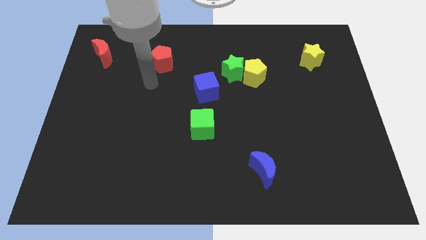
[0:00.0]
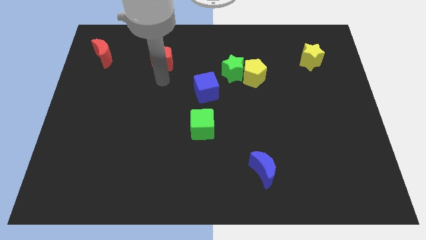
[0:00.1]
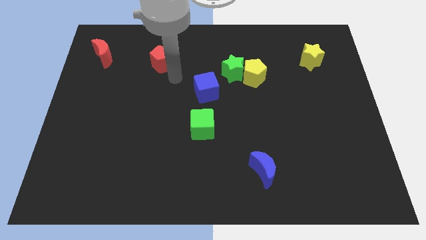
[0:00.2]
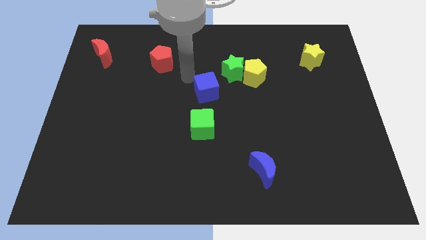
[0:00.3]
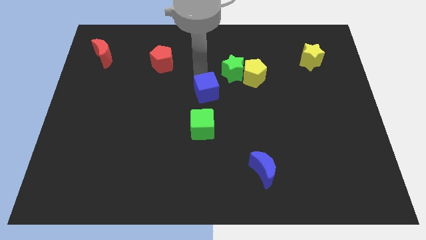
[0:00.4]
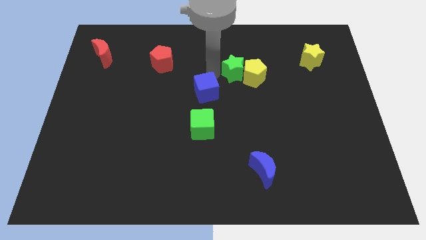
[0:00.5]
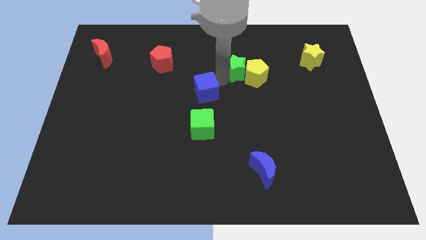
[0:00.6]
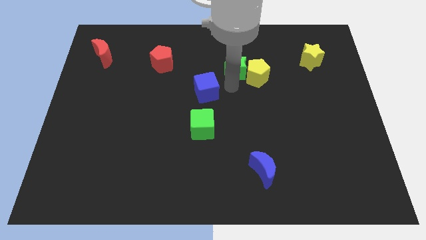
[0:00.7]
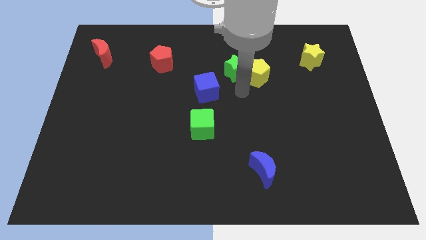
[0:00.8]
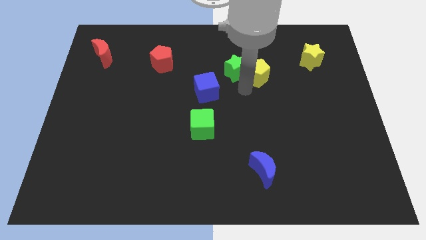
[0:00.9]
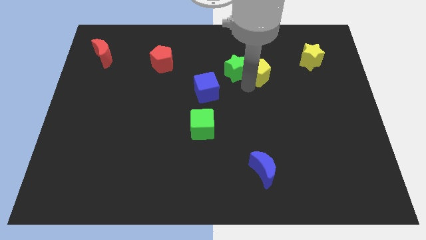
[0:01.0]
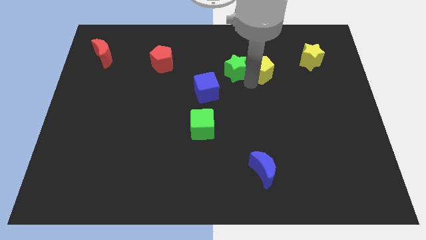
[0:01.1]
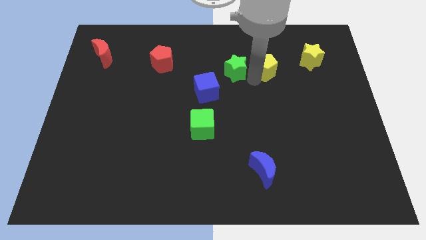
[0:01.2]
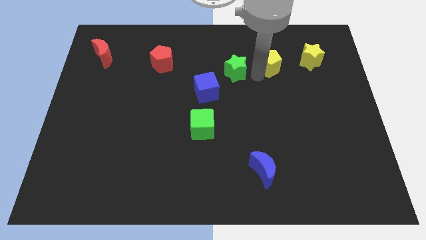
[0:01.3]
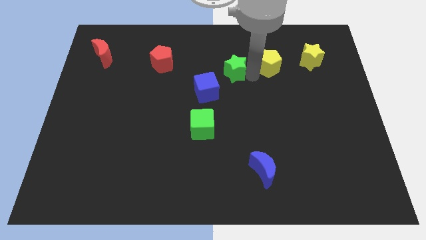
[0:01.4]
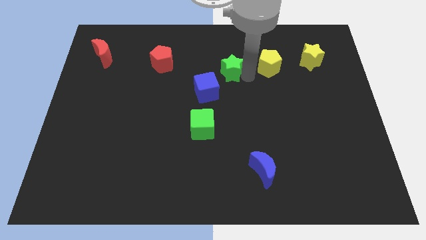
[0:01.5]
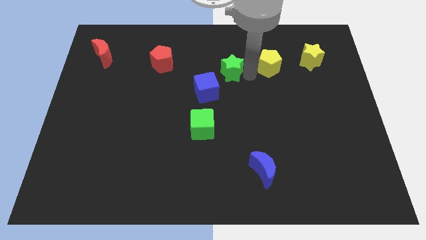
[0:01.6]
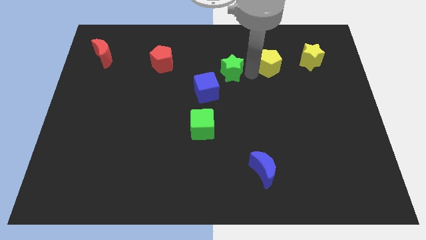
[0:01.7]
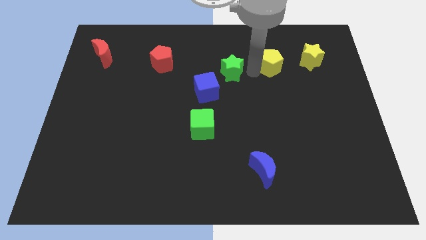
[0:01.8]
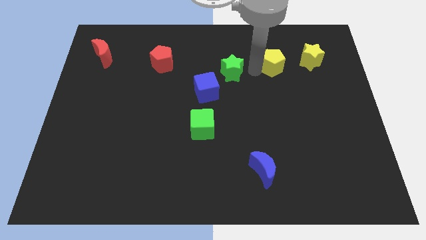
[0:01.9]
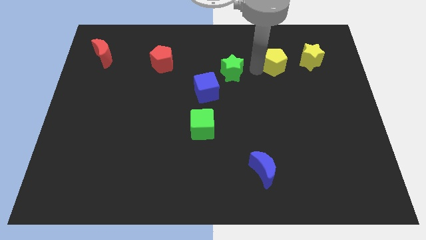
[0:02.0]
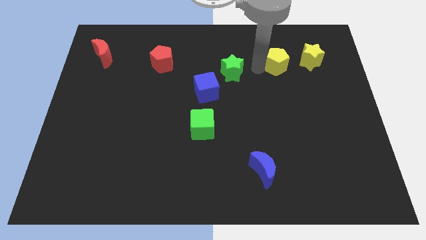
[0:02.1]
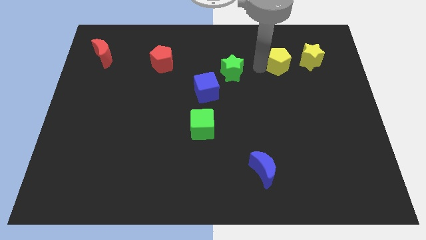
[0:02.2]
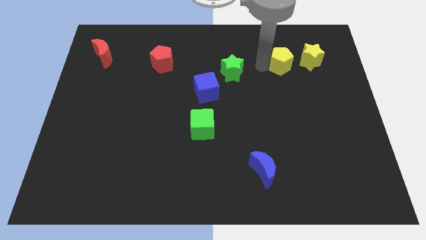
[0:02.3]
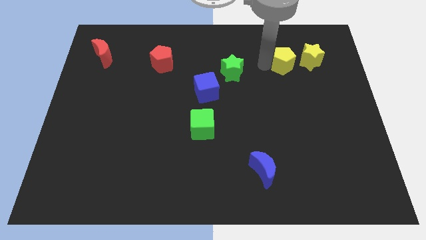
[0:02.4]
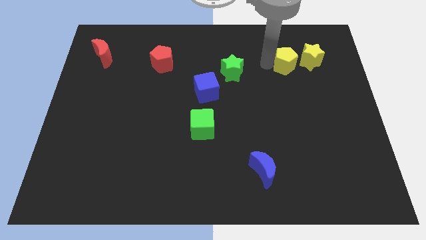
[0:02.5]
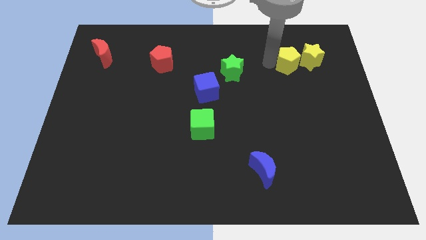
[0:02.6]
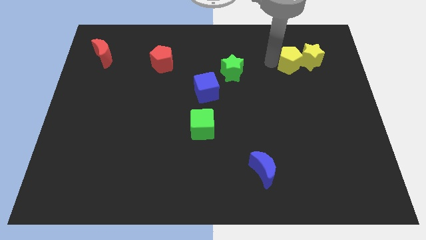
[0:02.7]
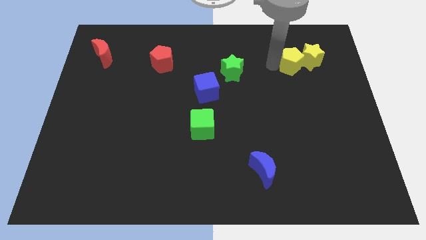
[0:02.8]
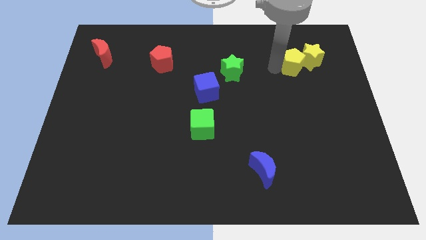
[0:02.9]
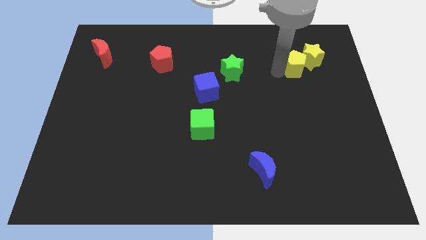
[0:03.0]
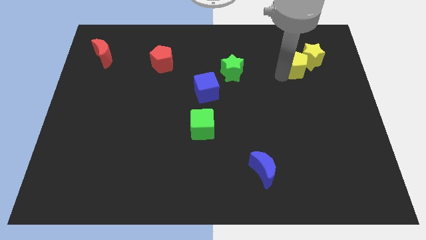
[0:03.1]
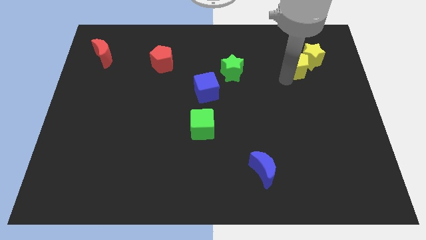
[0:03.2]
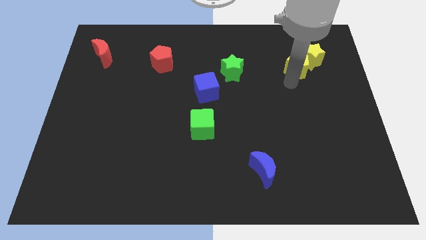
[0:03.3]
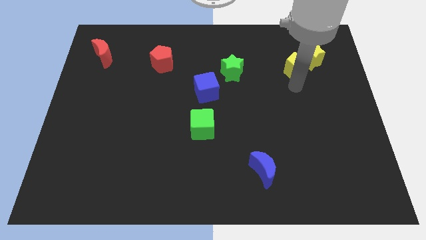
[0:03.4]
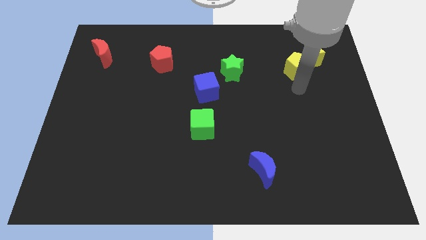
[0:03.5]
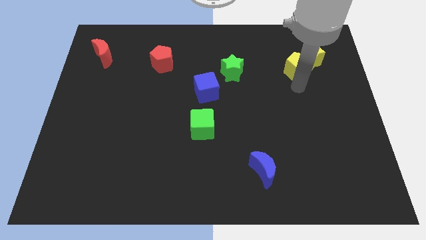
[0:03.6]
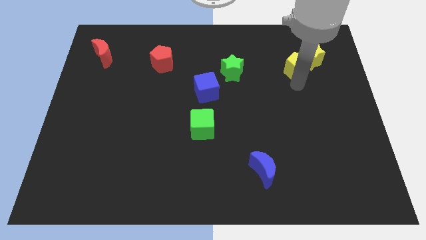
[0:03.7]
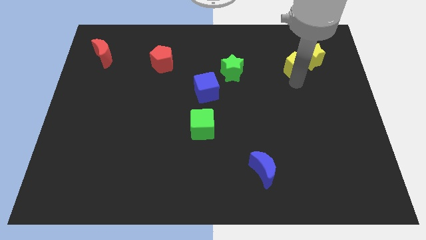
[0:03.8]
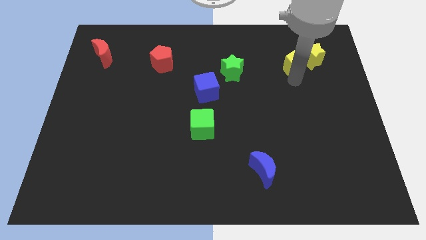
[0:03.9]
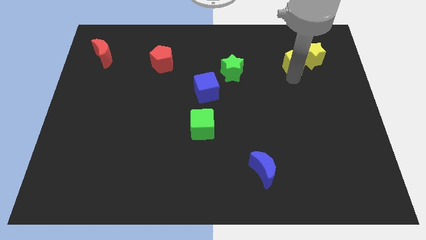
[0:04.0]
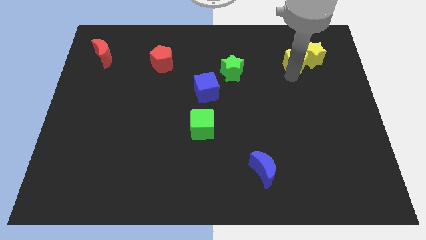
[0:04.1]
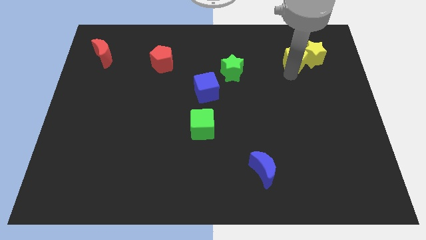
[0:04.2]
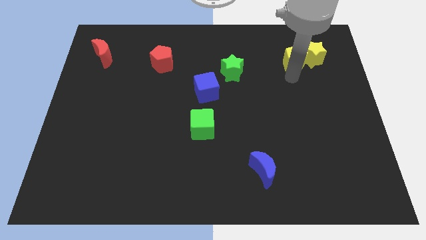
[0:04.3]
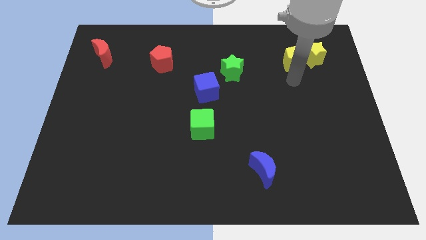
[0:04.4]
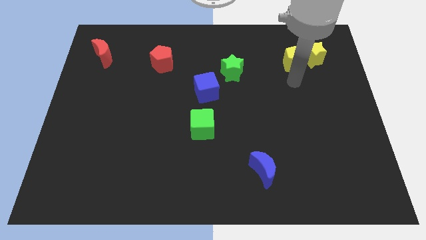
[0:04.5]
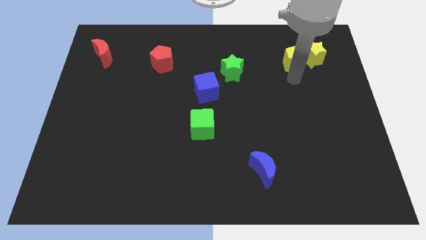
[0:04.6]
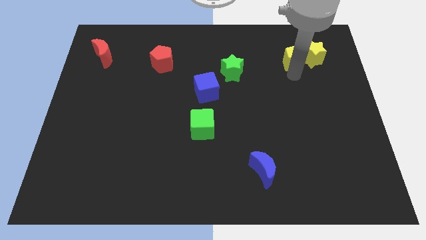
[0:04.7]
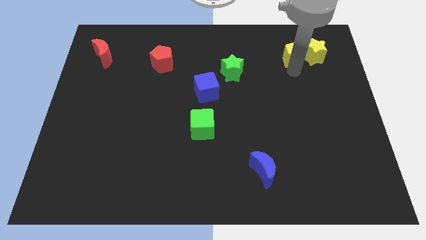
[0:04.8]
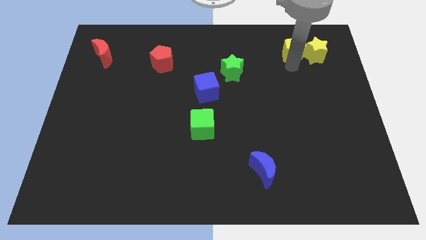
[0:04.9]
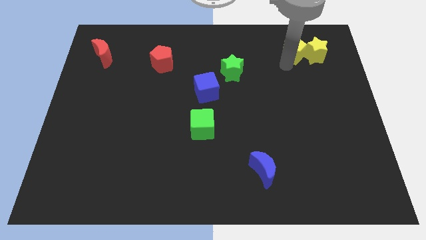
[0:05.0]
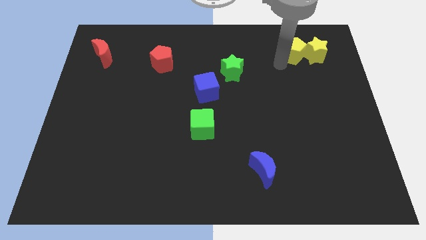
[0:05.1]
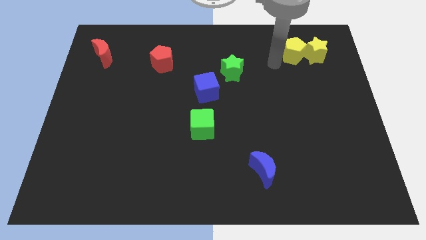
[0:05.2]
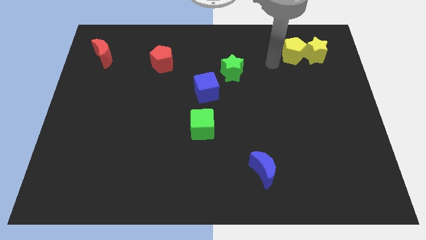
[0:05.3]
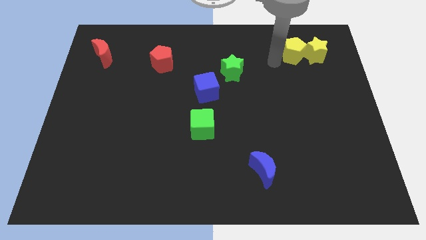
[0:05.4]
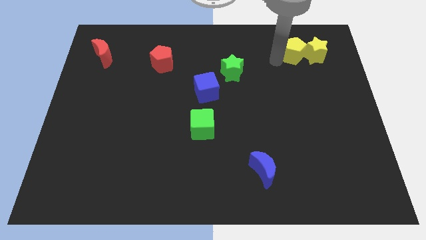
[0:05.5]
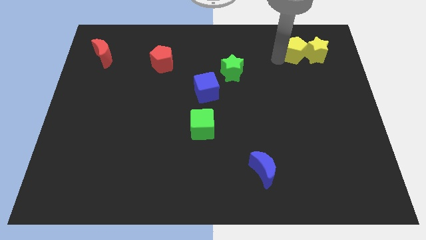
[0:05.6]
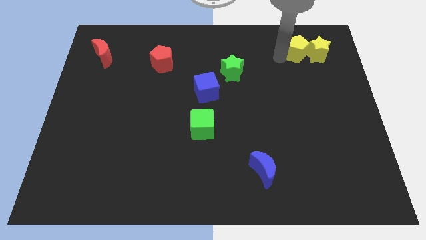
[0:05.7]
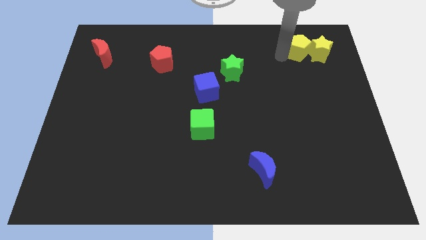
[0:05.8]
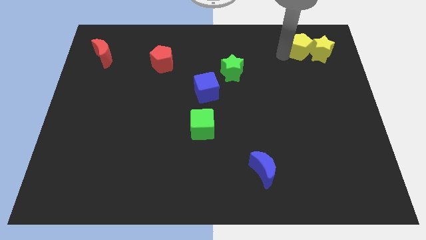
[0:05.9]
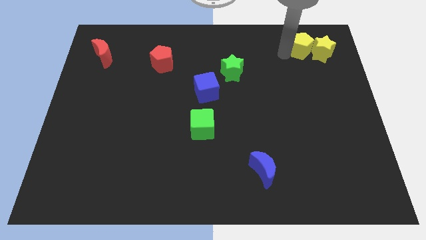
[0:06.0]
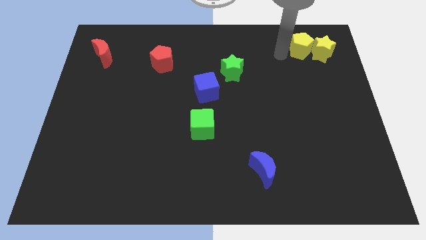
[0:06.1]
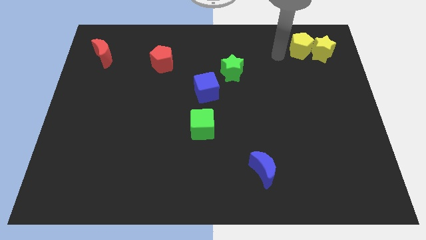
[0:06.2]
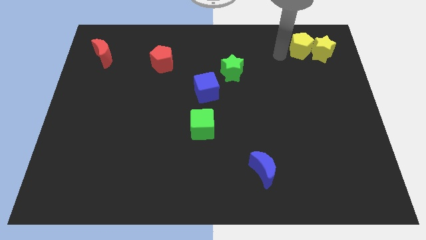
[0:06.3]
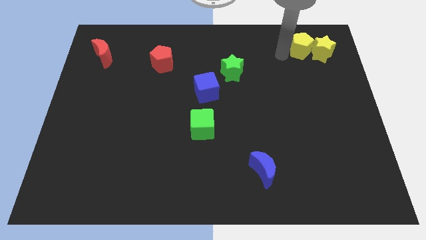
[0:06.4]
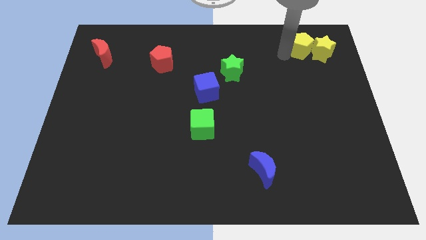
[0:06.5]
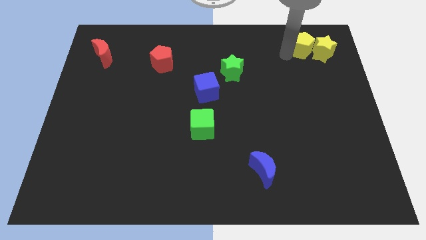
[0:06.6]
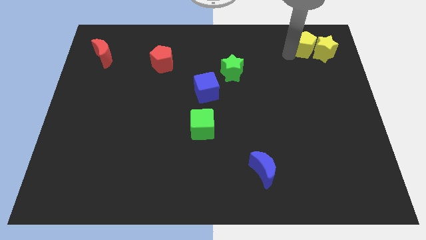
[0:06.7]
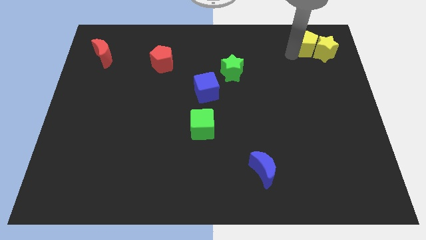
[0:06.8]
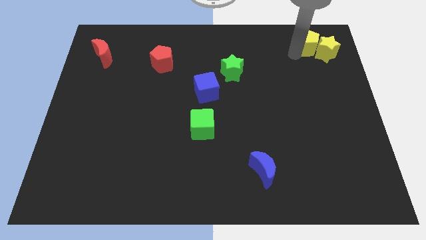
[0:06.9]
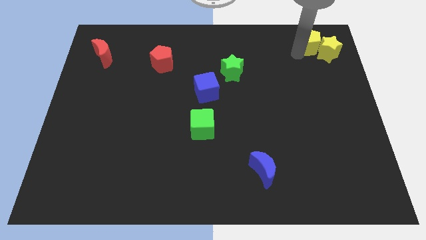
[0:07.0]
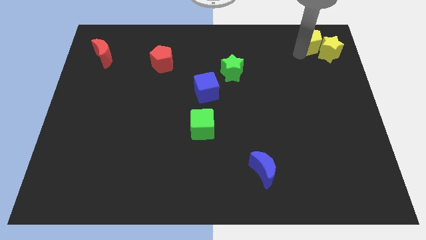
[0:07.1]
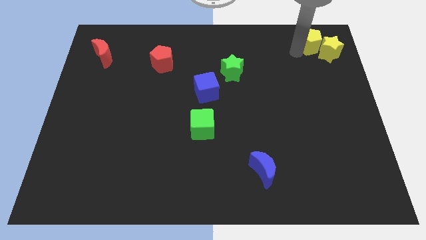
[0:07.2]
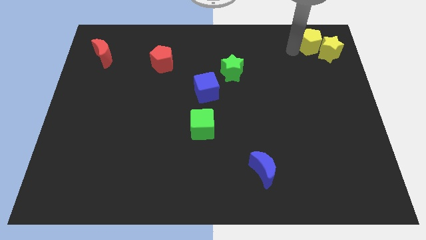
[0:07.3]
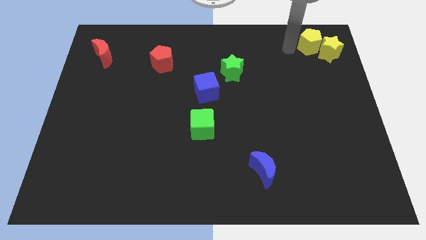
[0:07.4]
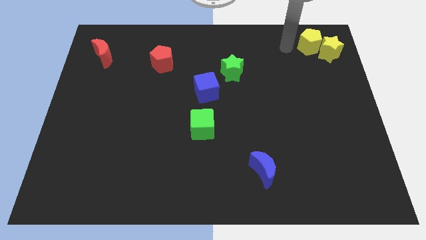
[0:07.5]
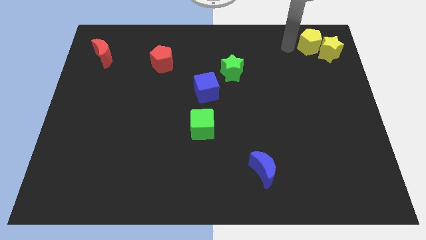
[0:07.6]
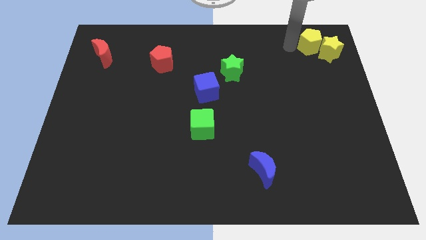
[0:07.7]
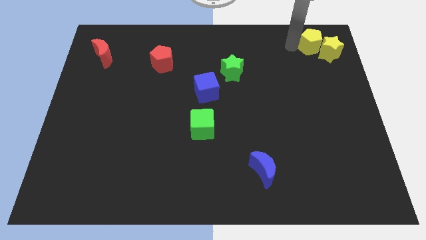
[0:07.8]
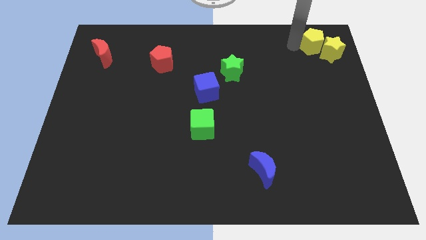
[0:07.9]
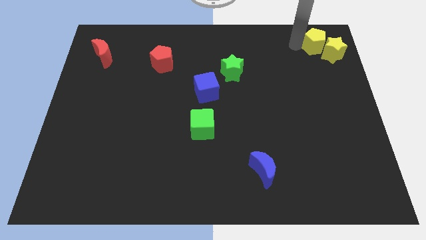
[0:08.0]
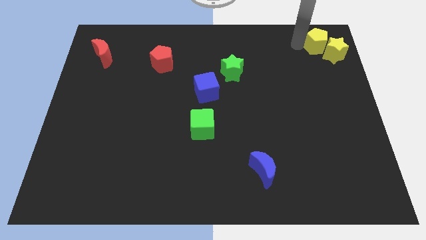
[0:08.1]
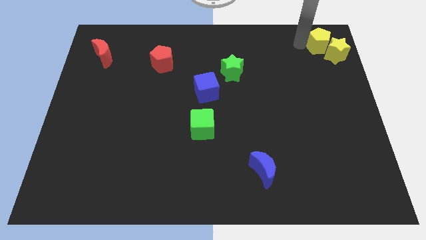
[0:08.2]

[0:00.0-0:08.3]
slide the yellow pentagon to the top right
